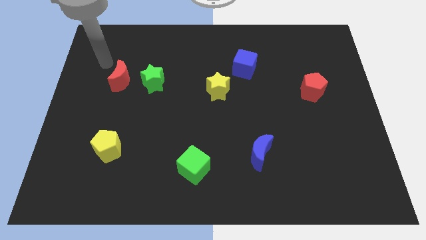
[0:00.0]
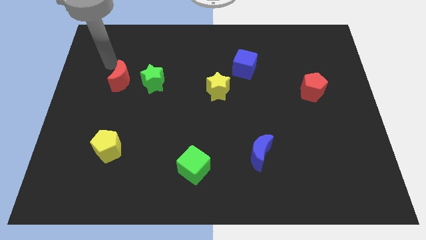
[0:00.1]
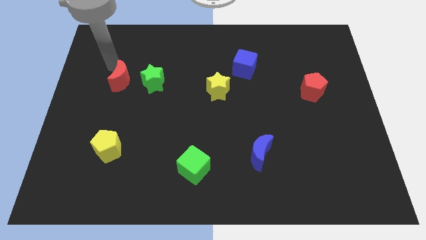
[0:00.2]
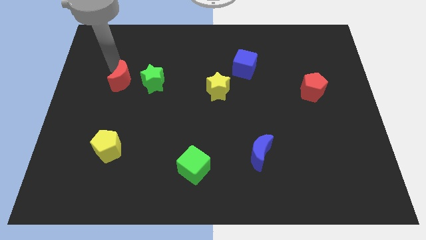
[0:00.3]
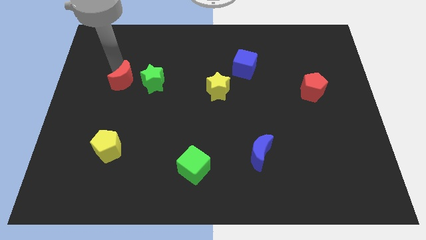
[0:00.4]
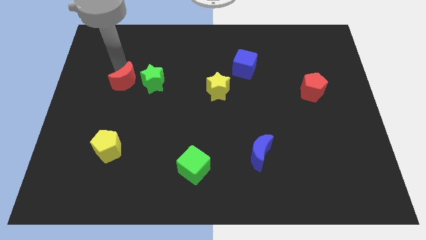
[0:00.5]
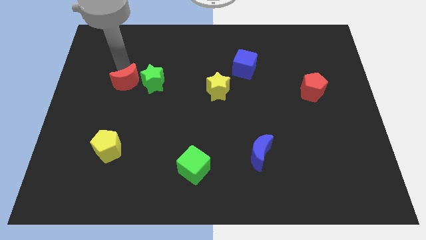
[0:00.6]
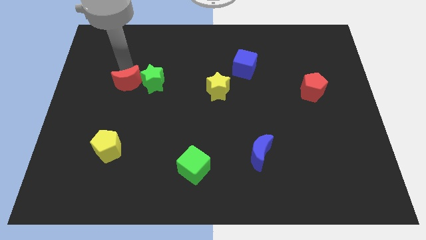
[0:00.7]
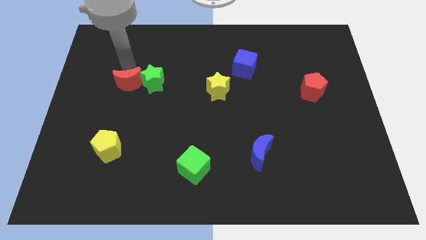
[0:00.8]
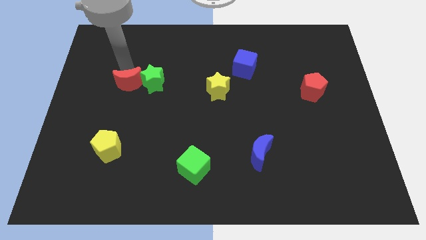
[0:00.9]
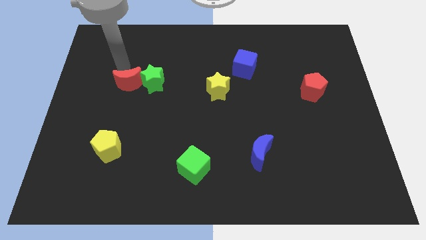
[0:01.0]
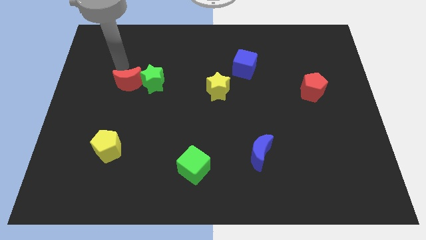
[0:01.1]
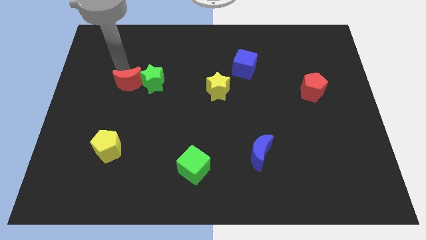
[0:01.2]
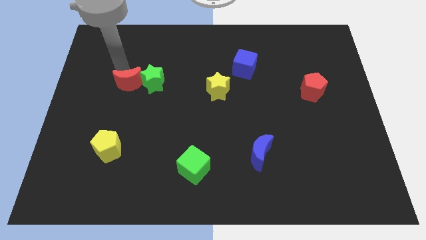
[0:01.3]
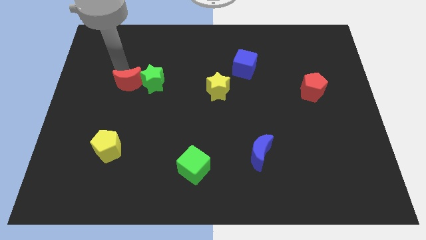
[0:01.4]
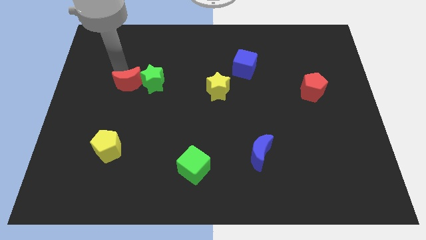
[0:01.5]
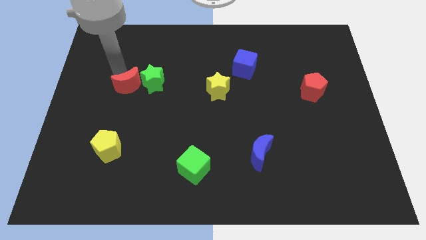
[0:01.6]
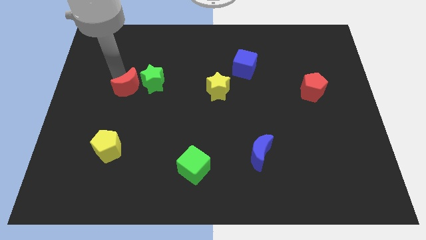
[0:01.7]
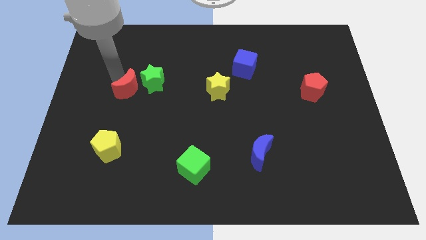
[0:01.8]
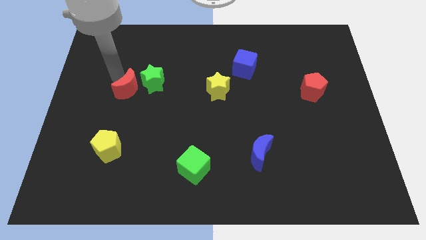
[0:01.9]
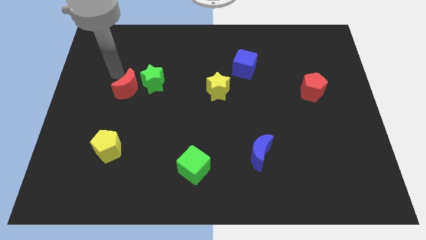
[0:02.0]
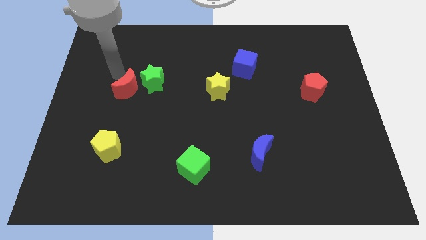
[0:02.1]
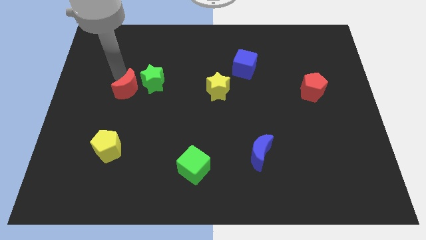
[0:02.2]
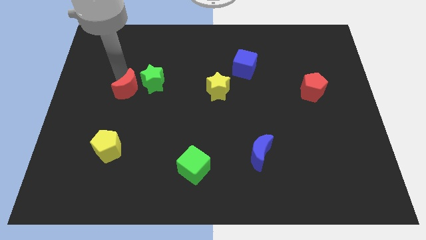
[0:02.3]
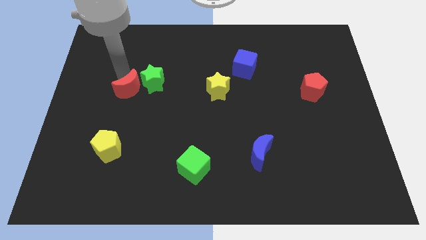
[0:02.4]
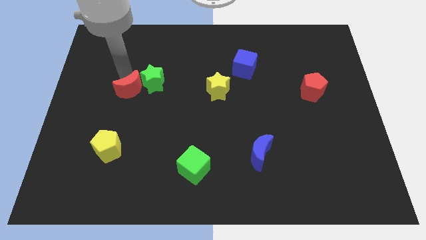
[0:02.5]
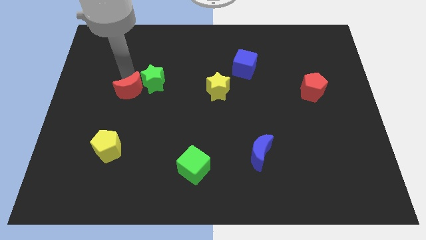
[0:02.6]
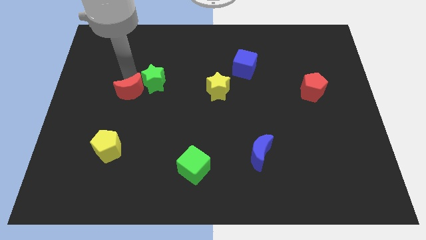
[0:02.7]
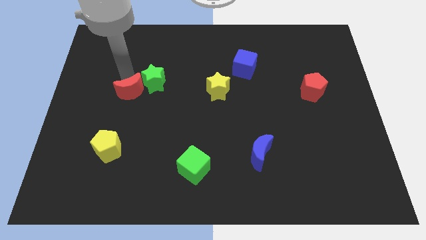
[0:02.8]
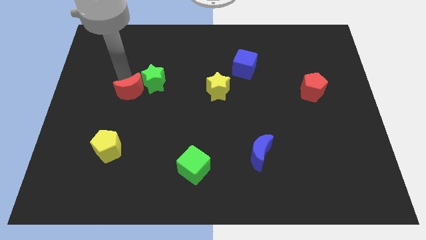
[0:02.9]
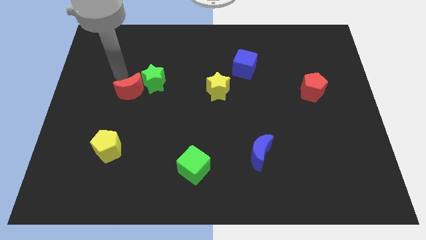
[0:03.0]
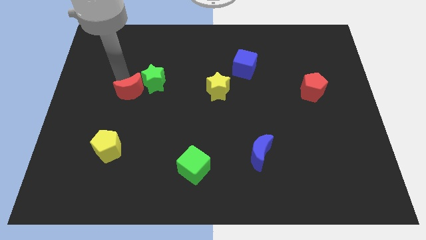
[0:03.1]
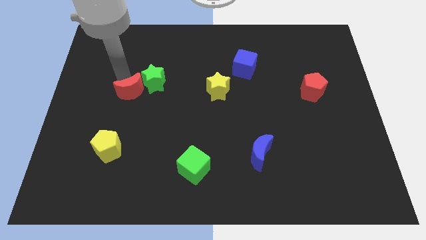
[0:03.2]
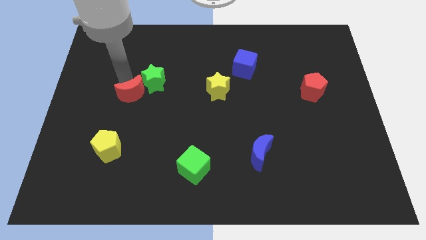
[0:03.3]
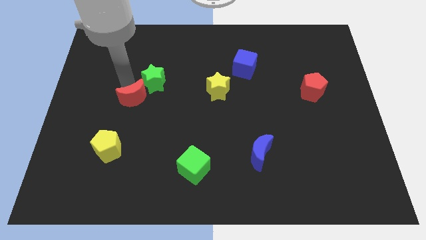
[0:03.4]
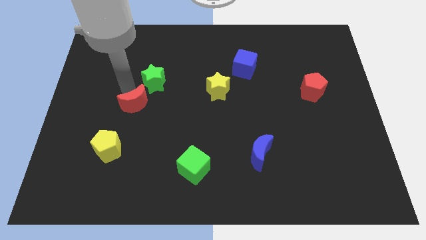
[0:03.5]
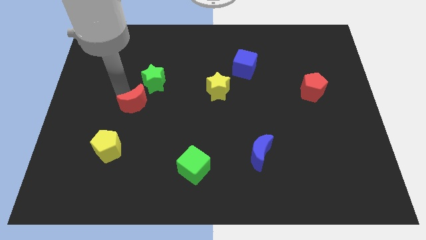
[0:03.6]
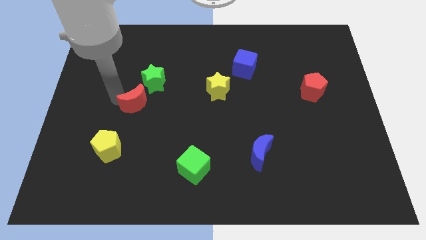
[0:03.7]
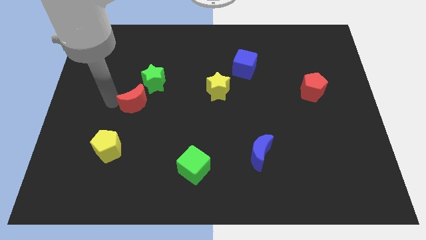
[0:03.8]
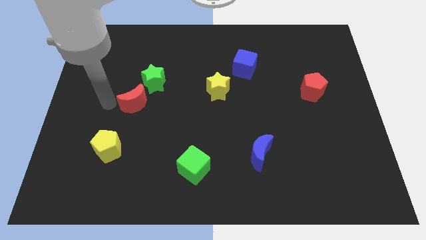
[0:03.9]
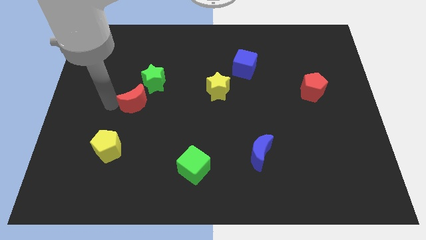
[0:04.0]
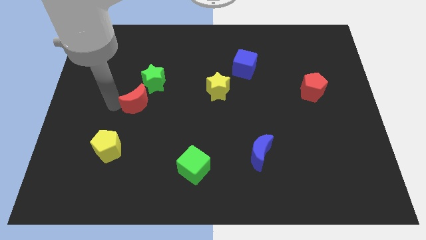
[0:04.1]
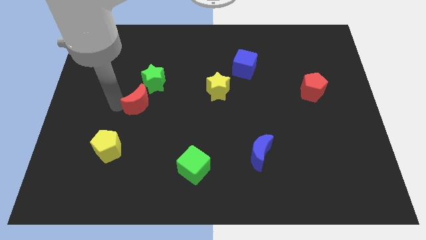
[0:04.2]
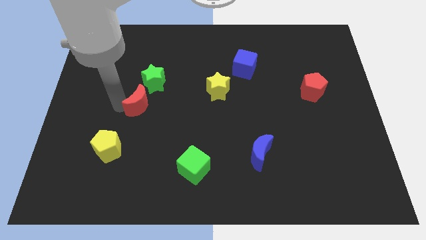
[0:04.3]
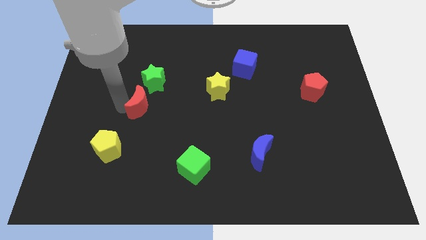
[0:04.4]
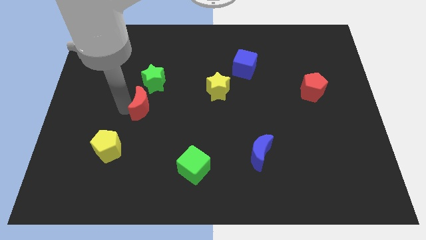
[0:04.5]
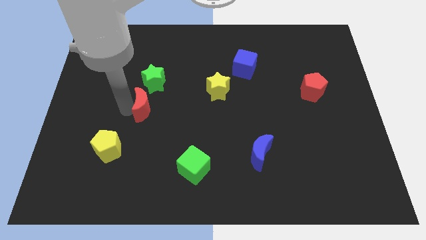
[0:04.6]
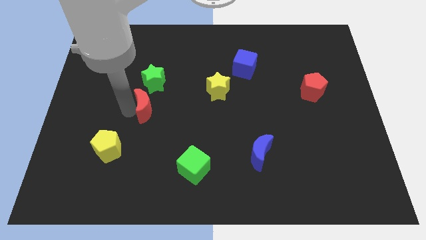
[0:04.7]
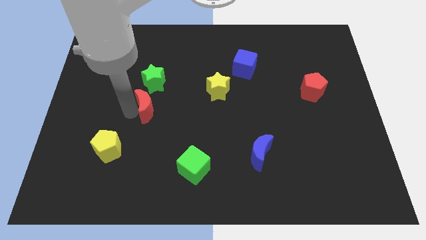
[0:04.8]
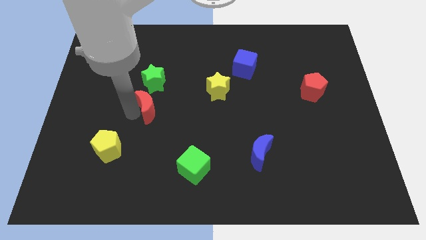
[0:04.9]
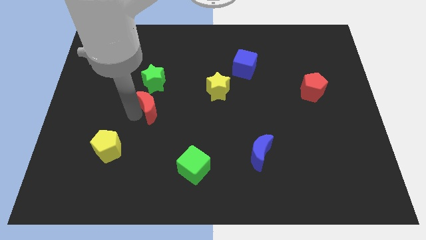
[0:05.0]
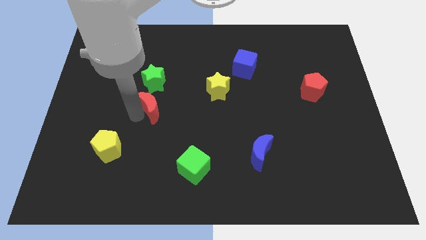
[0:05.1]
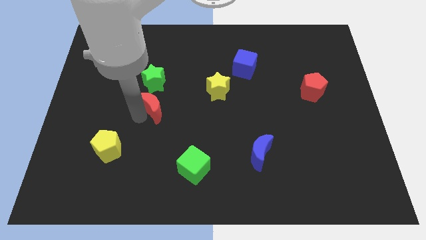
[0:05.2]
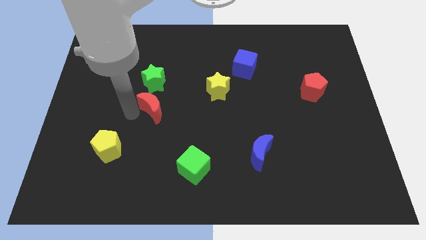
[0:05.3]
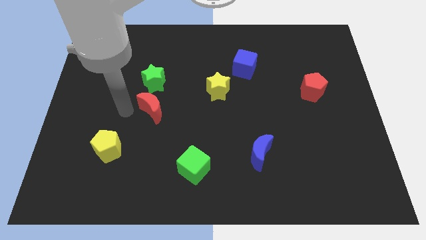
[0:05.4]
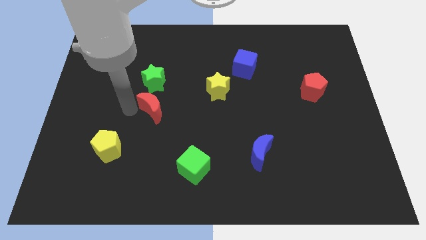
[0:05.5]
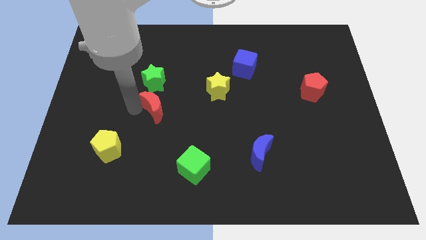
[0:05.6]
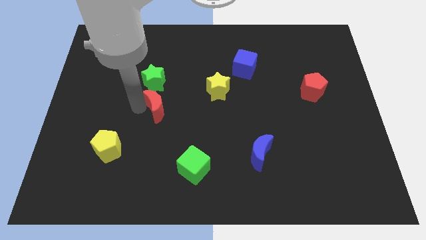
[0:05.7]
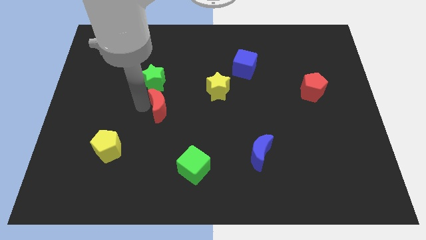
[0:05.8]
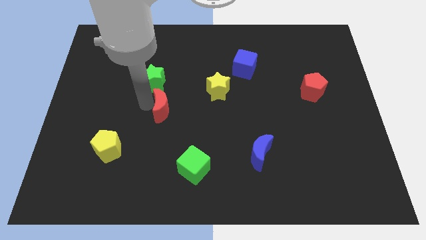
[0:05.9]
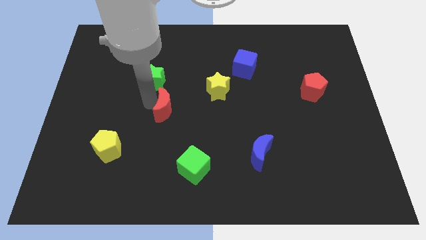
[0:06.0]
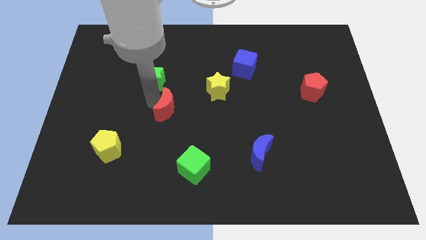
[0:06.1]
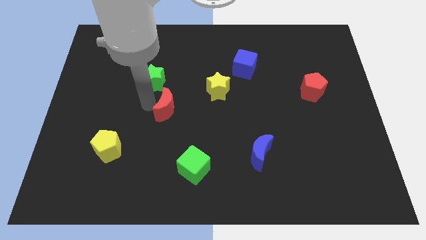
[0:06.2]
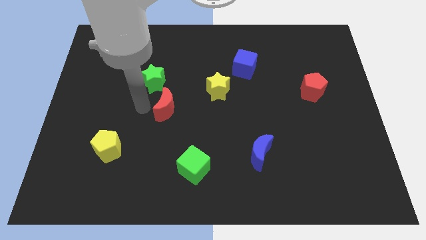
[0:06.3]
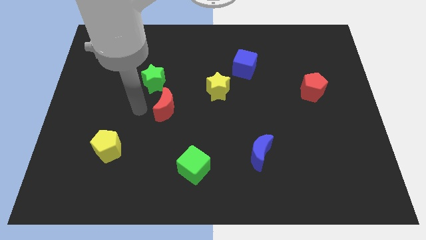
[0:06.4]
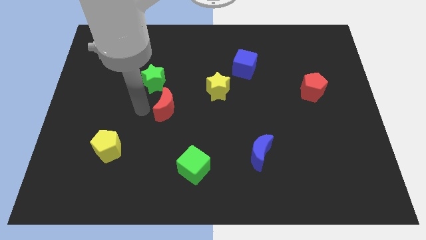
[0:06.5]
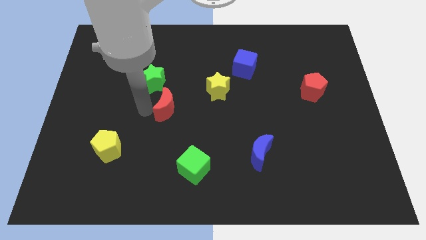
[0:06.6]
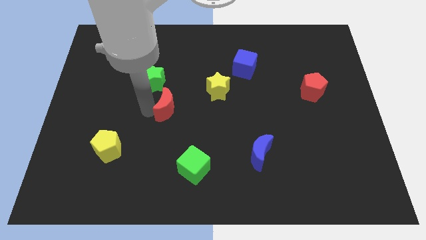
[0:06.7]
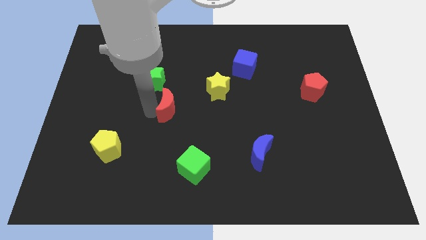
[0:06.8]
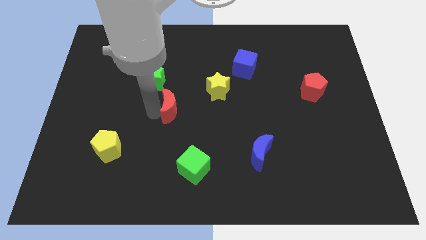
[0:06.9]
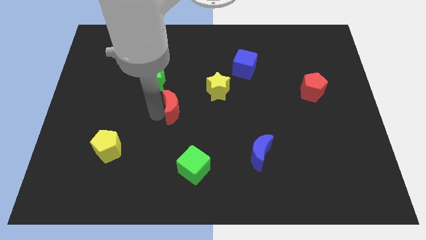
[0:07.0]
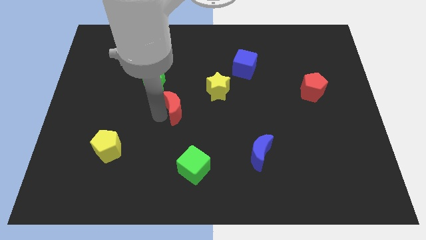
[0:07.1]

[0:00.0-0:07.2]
put the red moon diagonally down and to the left of the yellow star

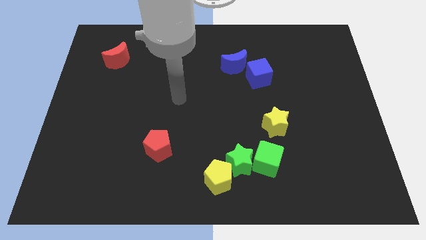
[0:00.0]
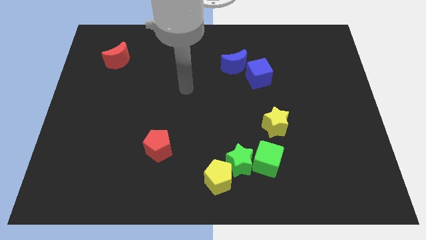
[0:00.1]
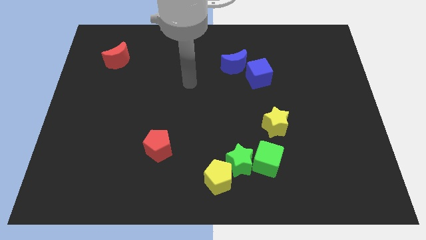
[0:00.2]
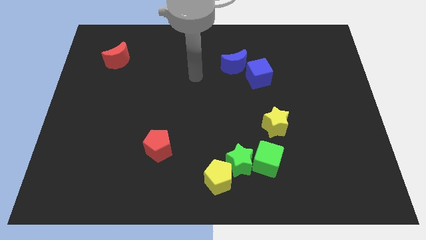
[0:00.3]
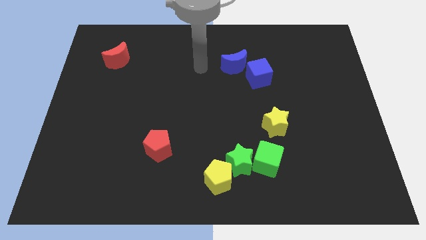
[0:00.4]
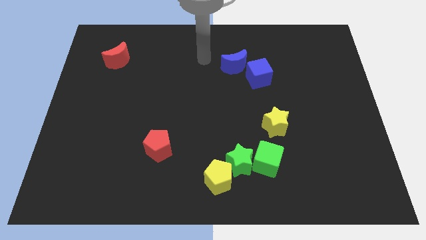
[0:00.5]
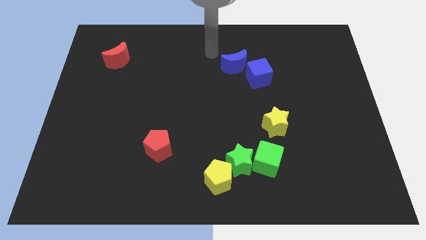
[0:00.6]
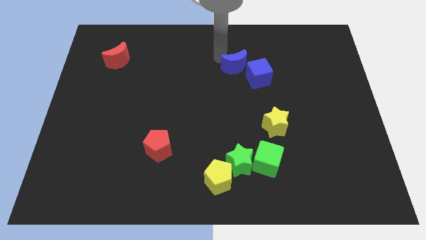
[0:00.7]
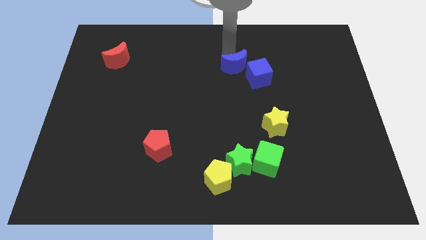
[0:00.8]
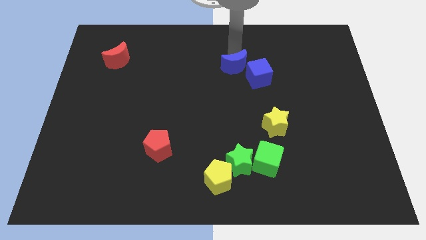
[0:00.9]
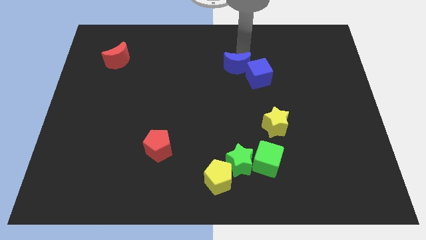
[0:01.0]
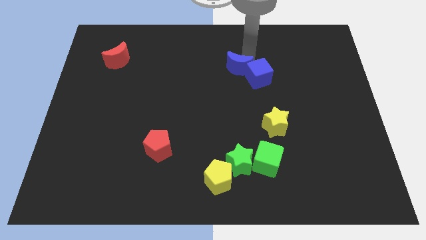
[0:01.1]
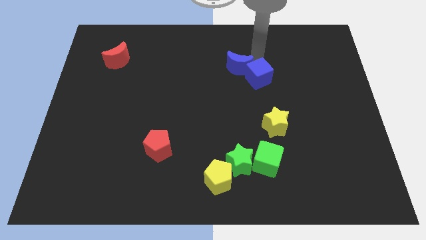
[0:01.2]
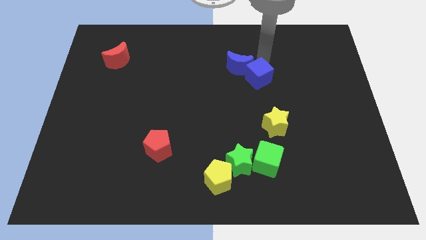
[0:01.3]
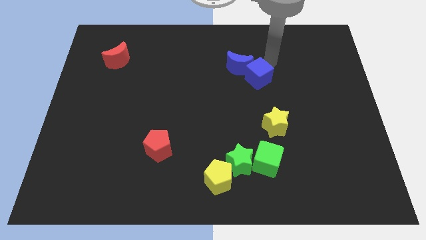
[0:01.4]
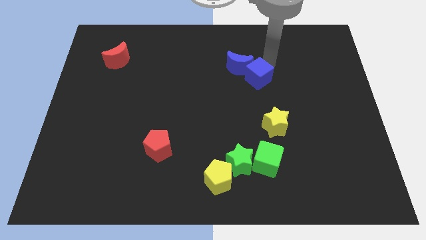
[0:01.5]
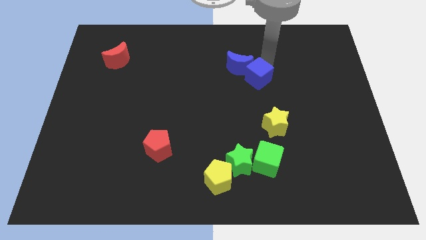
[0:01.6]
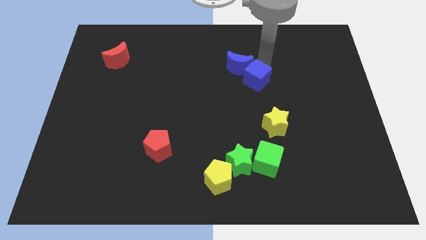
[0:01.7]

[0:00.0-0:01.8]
put the blue cube to the bottom of the blue moon
